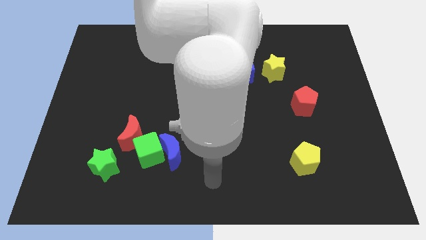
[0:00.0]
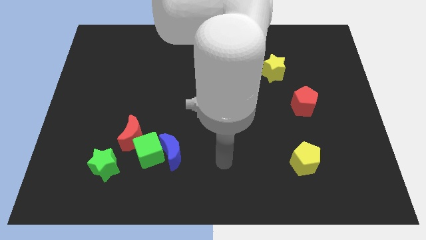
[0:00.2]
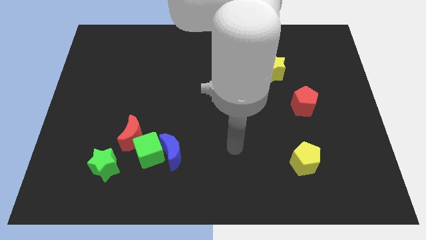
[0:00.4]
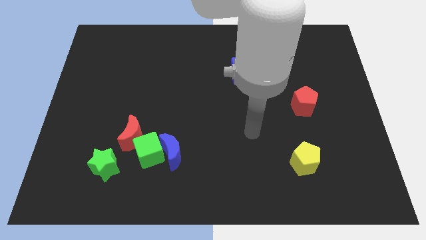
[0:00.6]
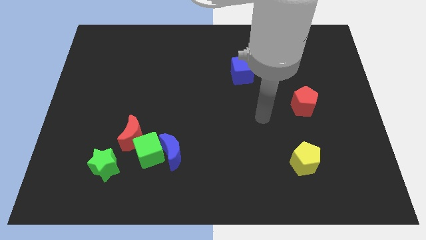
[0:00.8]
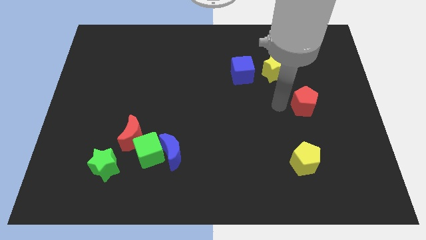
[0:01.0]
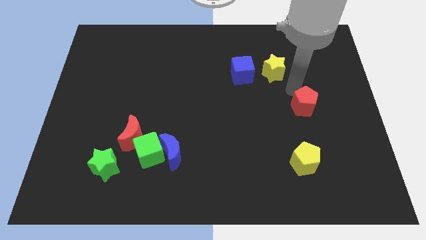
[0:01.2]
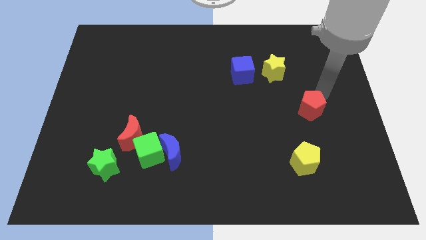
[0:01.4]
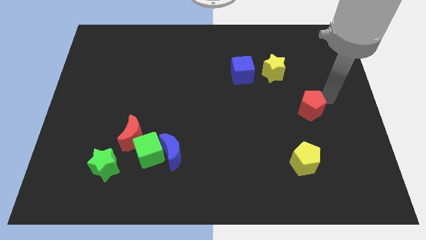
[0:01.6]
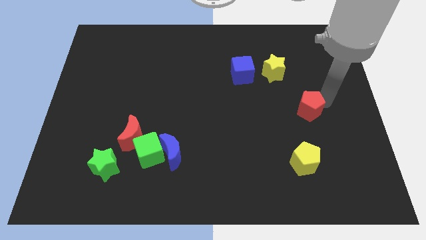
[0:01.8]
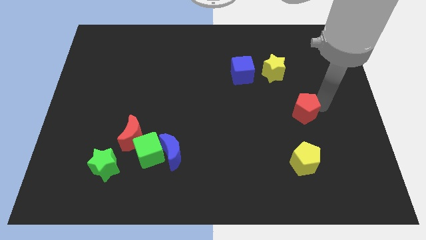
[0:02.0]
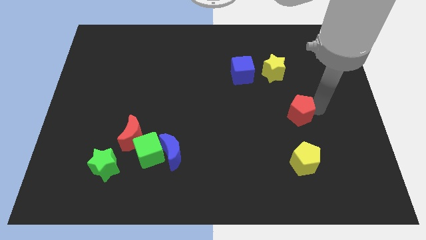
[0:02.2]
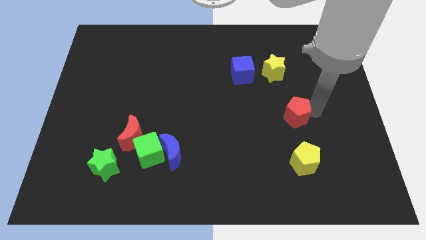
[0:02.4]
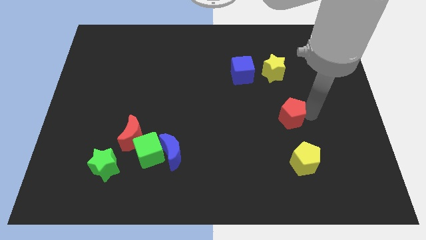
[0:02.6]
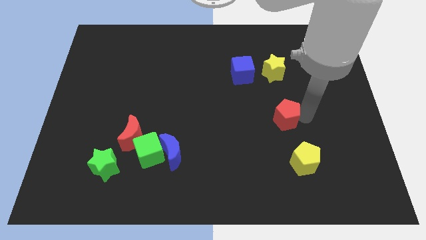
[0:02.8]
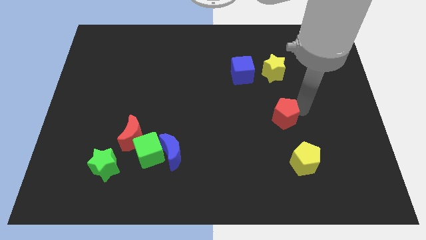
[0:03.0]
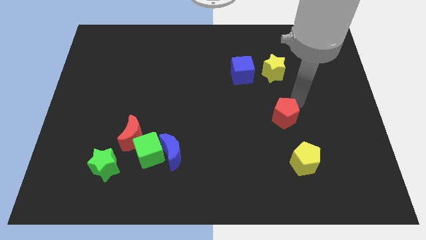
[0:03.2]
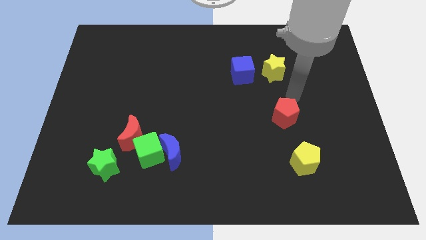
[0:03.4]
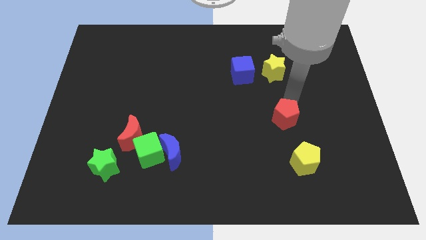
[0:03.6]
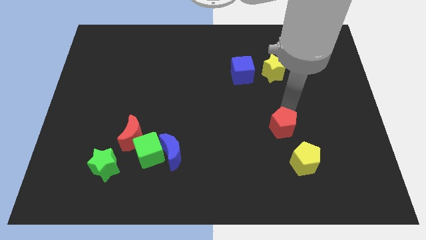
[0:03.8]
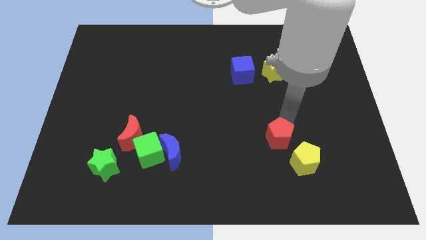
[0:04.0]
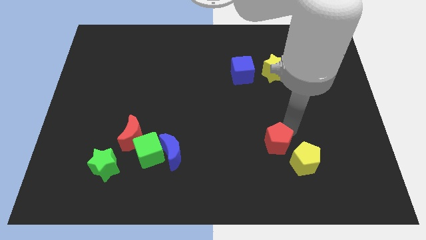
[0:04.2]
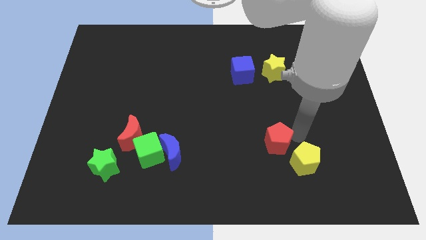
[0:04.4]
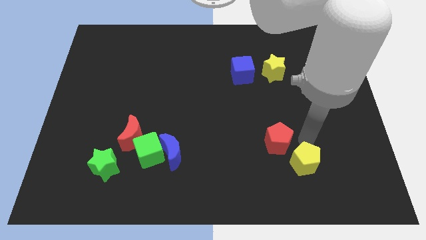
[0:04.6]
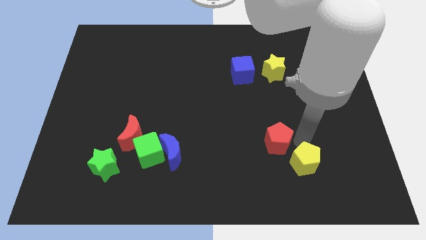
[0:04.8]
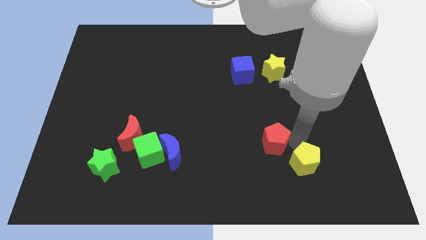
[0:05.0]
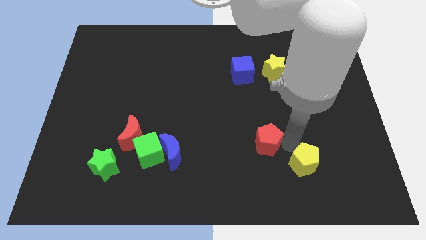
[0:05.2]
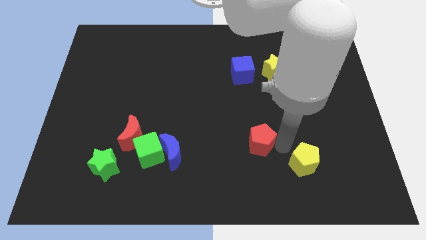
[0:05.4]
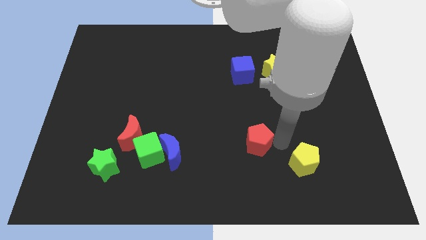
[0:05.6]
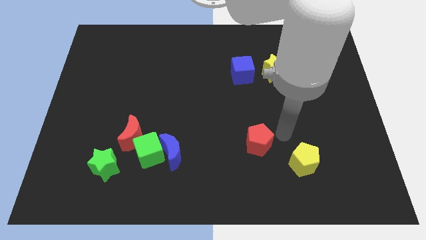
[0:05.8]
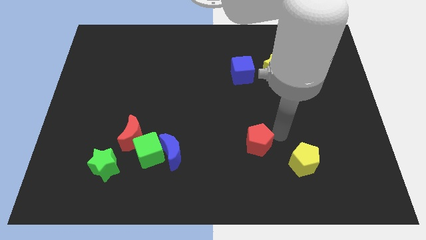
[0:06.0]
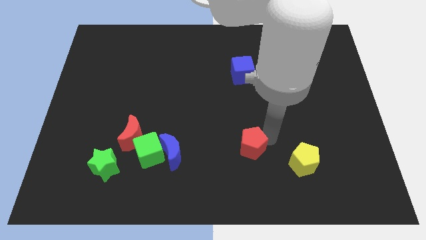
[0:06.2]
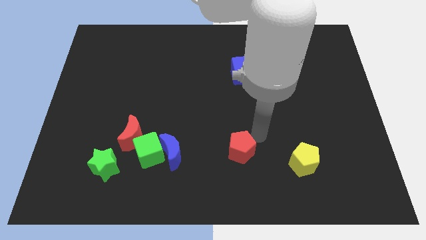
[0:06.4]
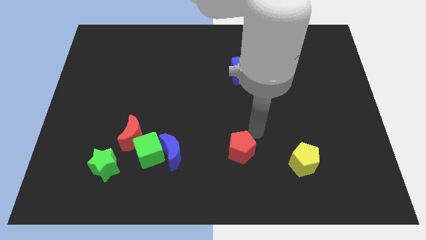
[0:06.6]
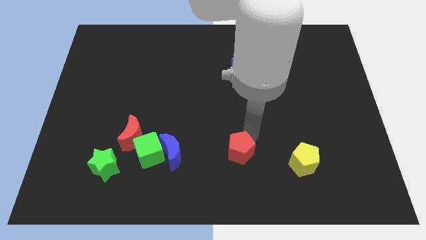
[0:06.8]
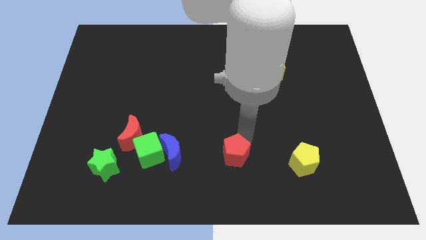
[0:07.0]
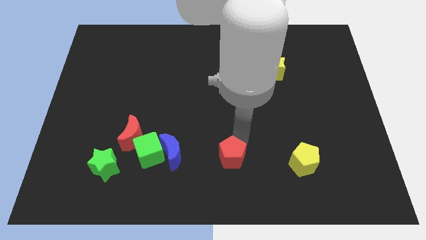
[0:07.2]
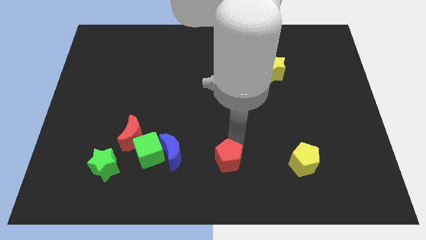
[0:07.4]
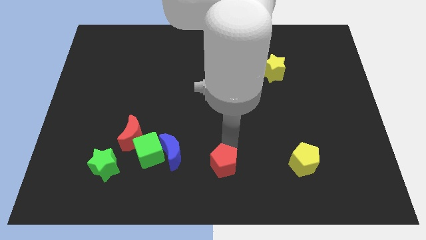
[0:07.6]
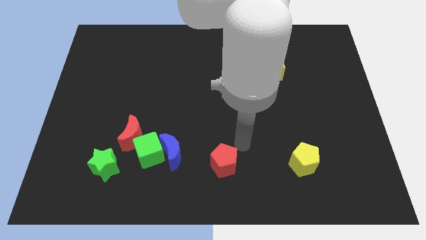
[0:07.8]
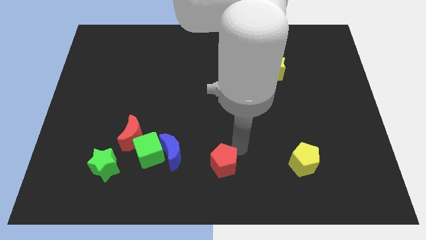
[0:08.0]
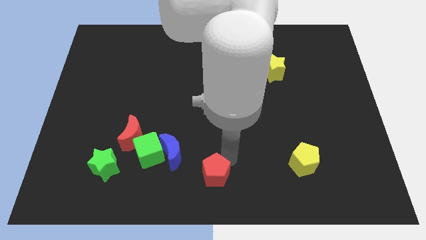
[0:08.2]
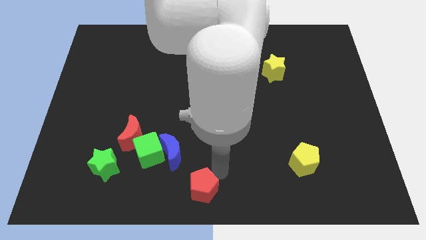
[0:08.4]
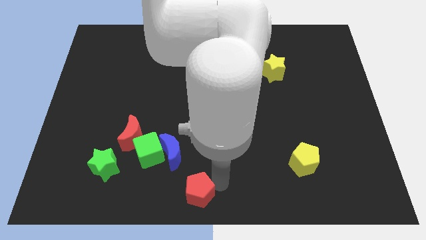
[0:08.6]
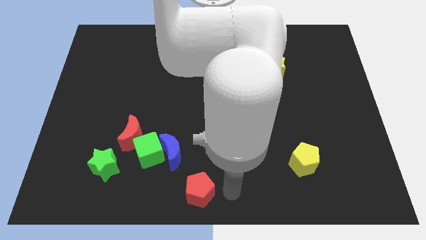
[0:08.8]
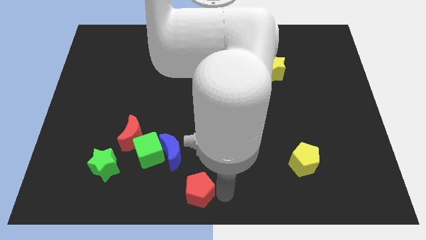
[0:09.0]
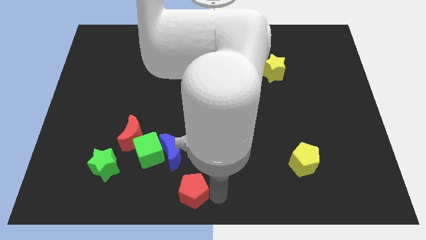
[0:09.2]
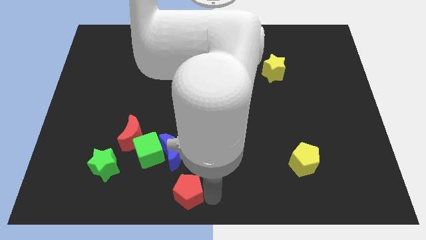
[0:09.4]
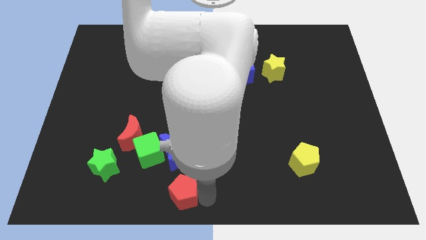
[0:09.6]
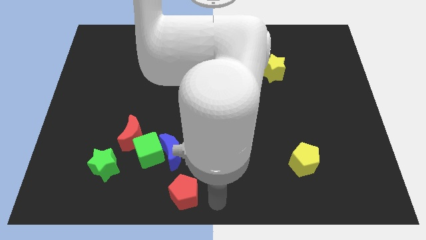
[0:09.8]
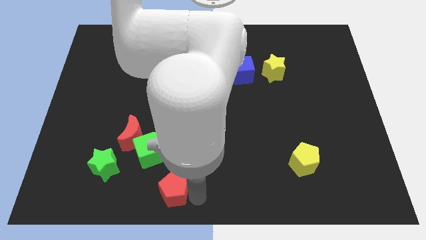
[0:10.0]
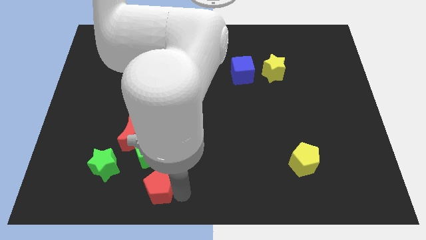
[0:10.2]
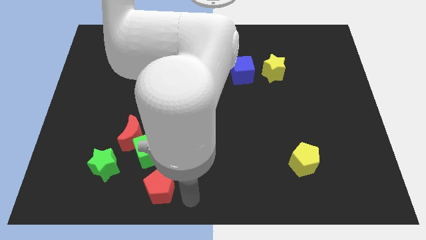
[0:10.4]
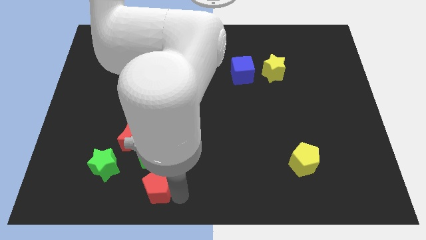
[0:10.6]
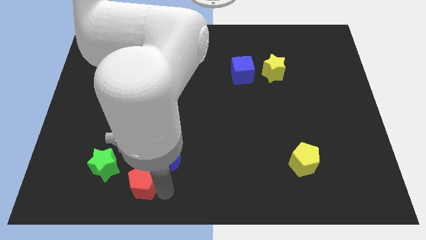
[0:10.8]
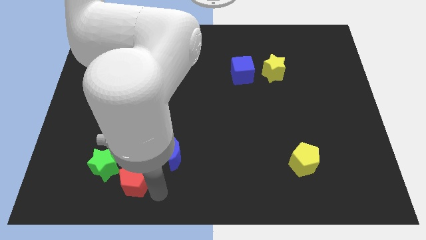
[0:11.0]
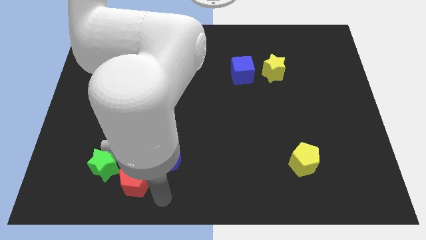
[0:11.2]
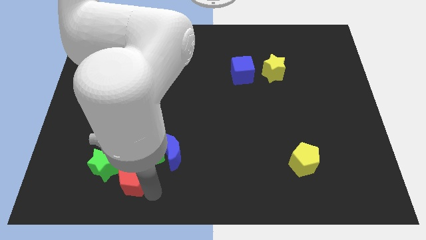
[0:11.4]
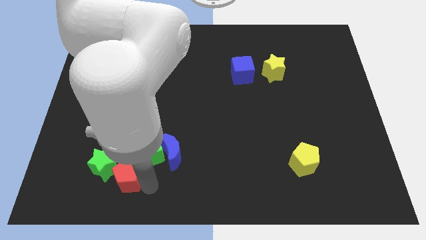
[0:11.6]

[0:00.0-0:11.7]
push the red pentagon to the green star

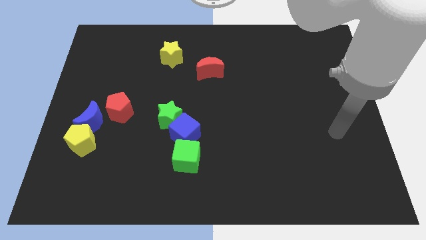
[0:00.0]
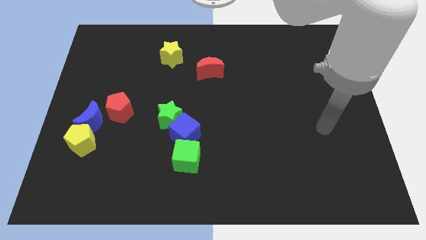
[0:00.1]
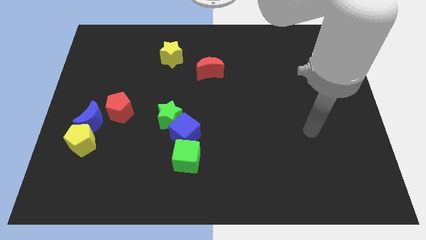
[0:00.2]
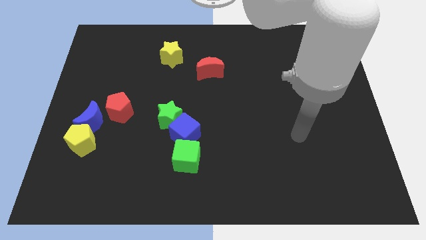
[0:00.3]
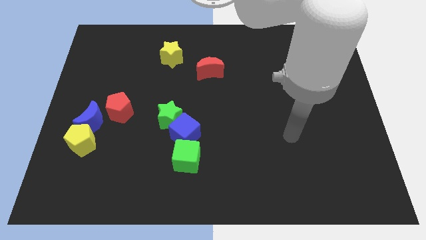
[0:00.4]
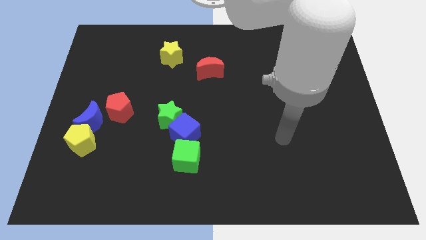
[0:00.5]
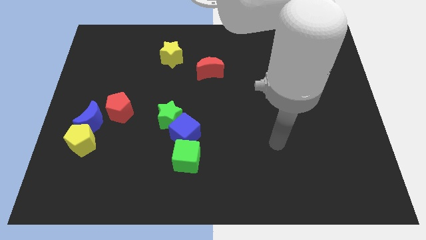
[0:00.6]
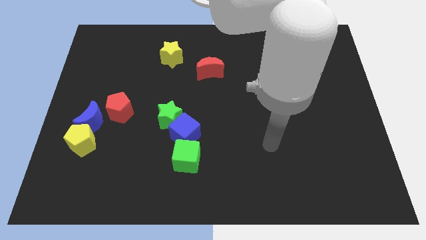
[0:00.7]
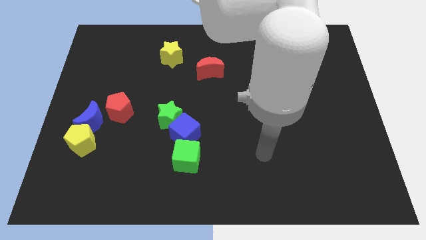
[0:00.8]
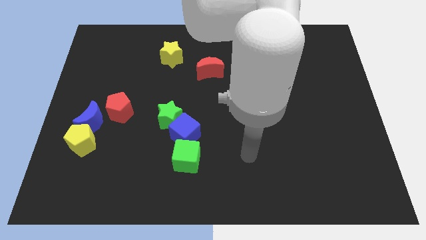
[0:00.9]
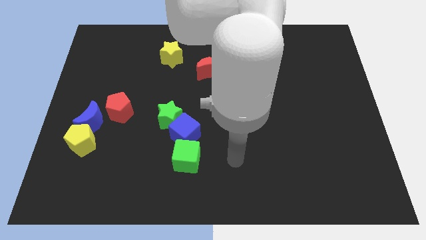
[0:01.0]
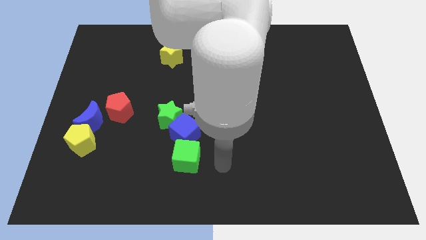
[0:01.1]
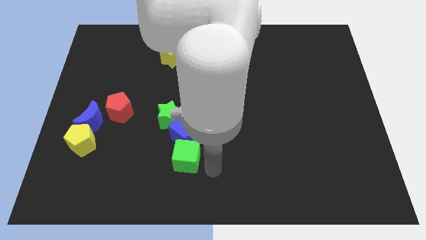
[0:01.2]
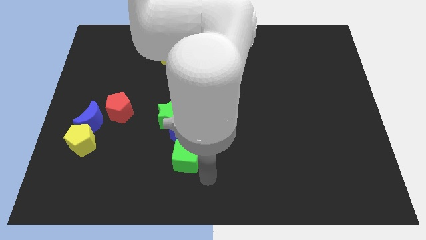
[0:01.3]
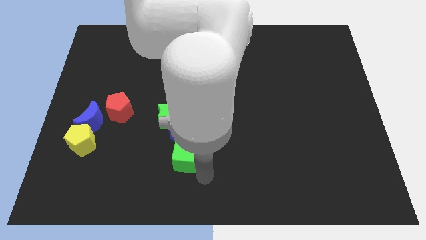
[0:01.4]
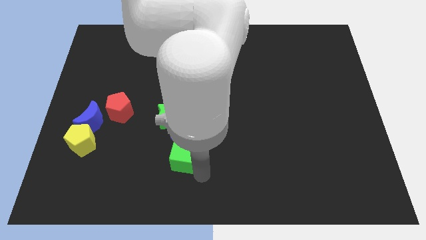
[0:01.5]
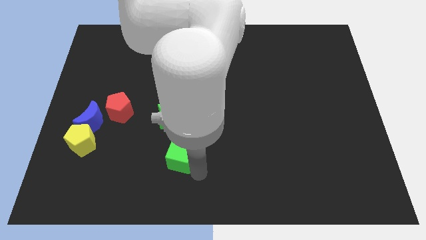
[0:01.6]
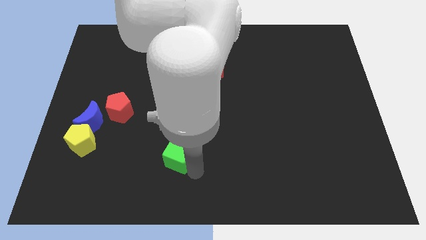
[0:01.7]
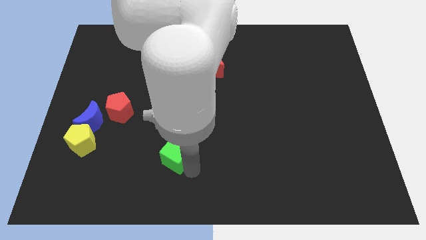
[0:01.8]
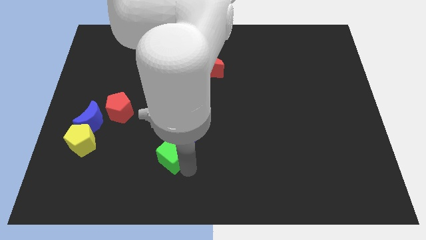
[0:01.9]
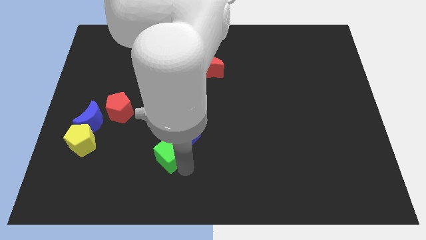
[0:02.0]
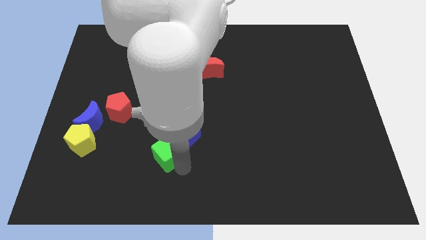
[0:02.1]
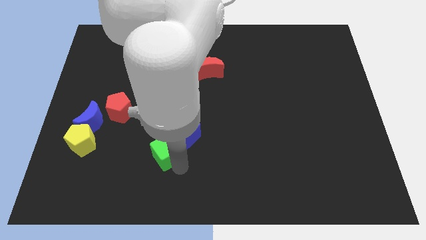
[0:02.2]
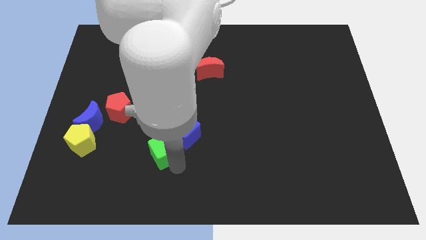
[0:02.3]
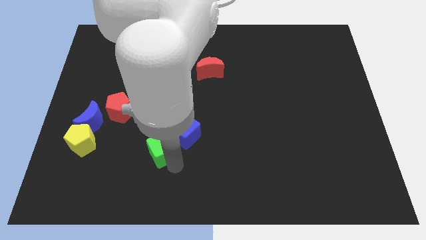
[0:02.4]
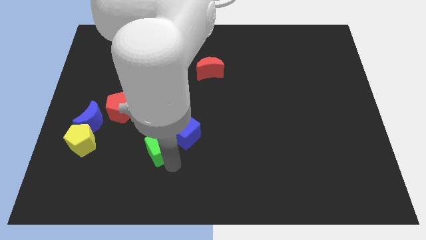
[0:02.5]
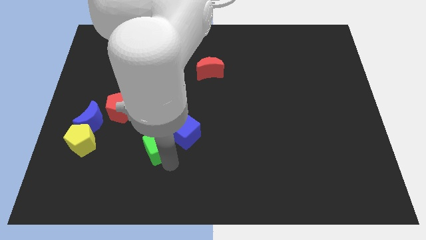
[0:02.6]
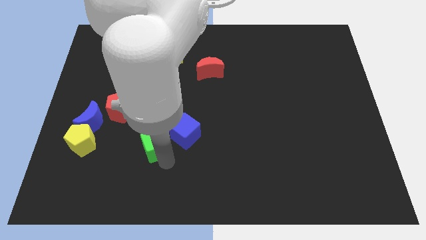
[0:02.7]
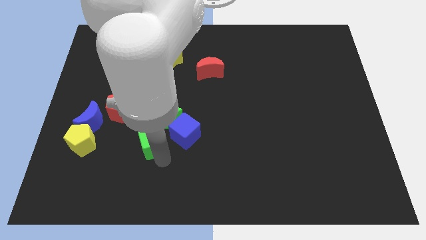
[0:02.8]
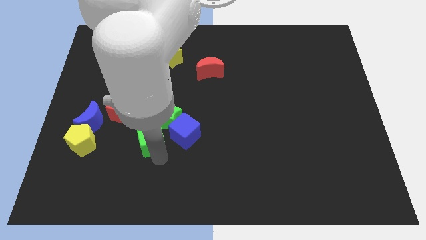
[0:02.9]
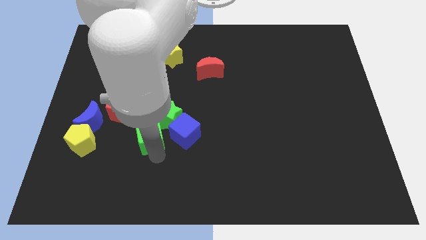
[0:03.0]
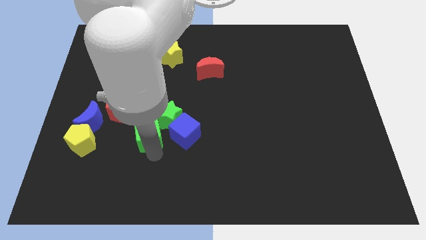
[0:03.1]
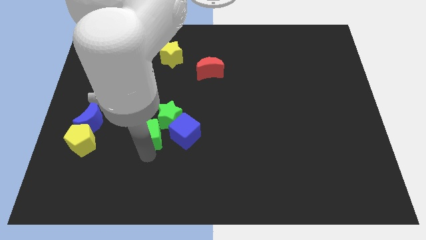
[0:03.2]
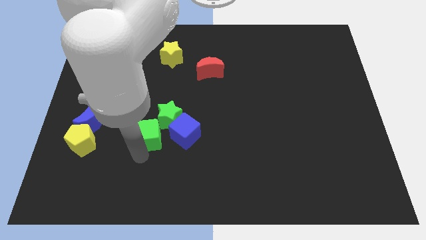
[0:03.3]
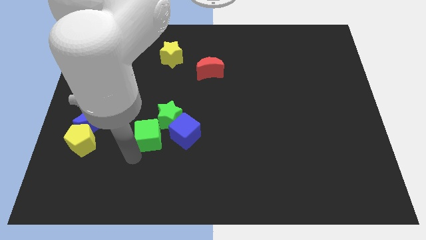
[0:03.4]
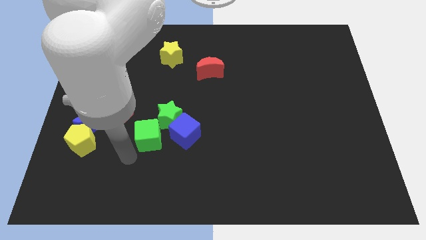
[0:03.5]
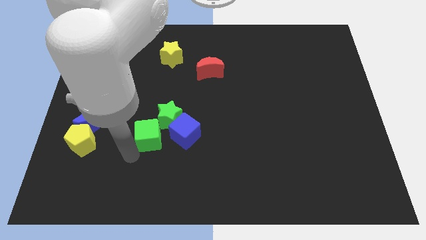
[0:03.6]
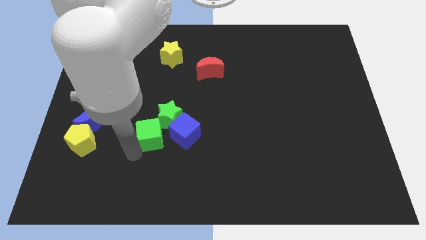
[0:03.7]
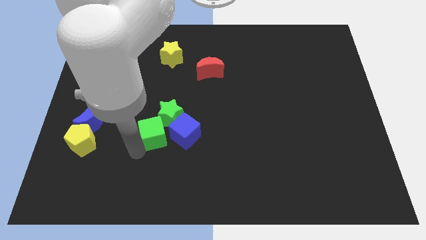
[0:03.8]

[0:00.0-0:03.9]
slide the green cube close to the green star
